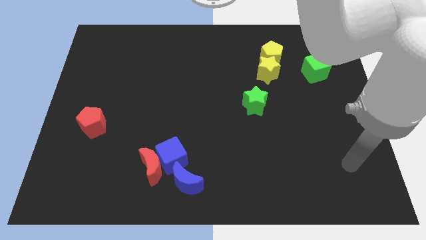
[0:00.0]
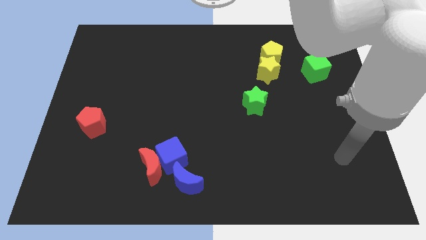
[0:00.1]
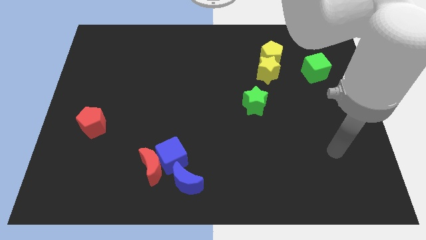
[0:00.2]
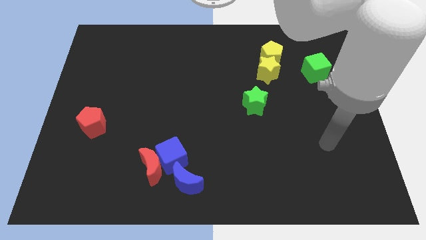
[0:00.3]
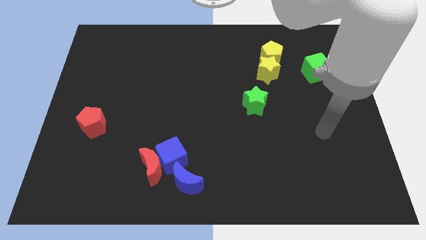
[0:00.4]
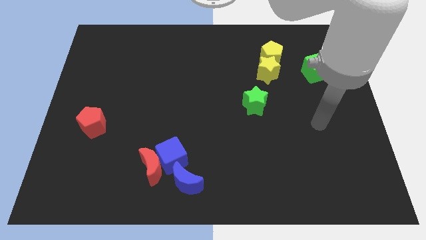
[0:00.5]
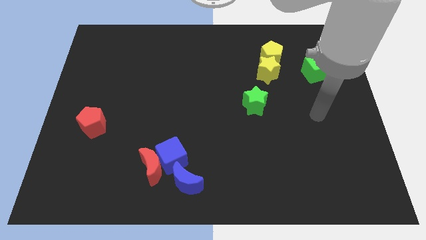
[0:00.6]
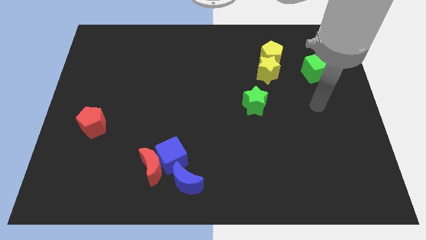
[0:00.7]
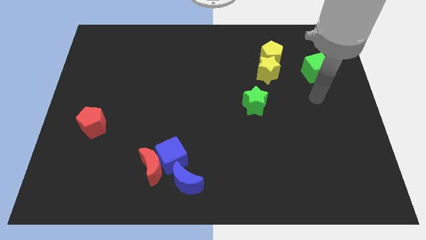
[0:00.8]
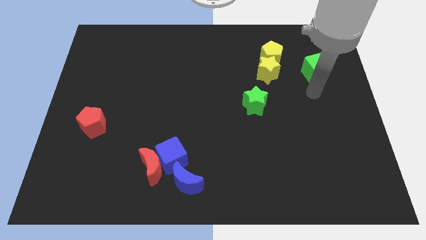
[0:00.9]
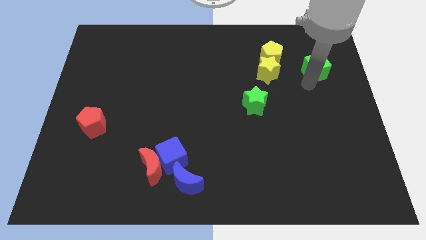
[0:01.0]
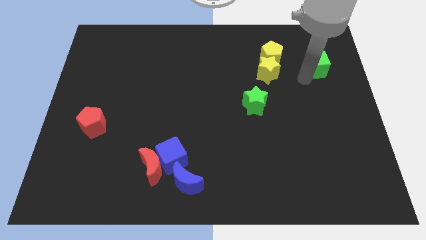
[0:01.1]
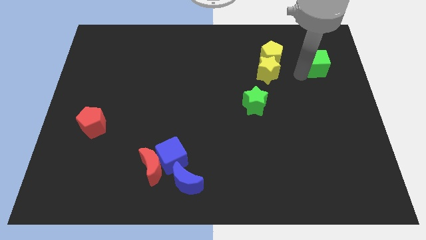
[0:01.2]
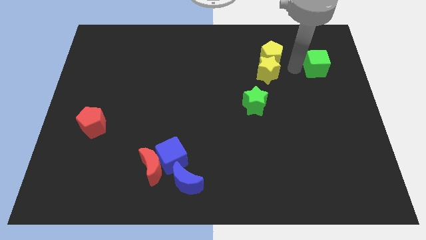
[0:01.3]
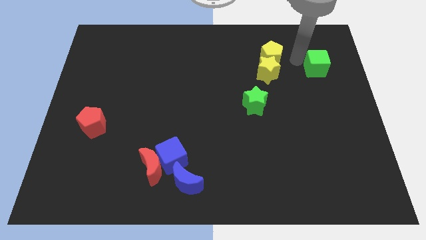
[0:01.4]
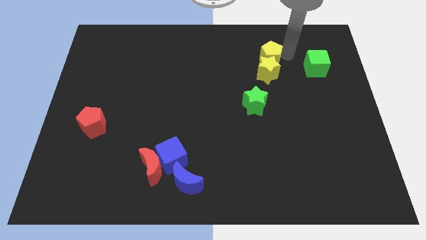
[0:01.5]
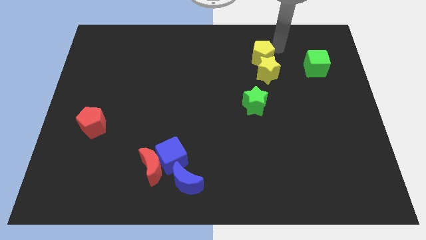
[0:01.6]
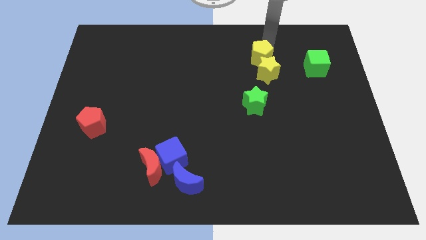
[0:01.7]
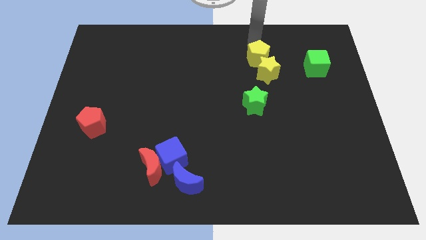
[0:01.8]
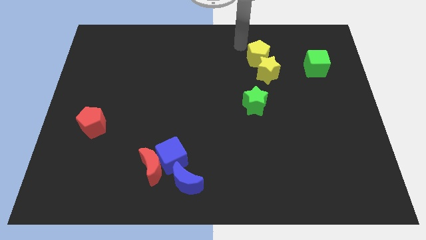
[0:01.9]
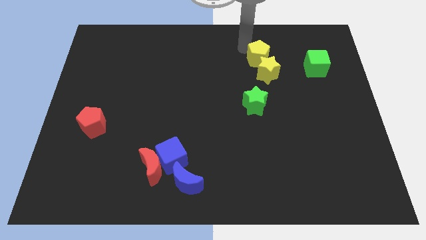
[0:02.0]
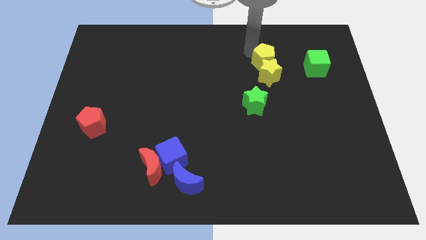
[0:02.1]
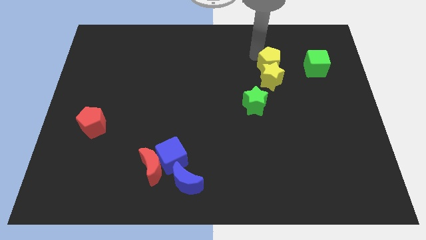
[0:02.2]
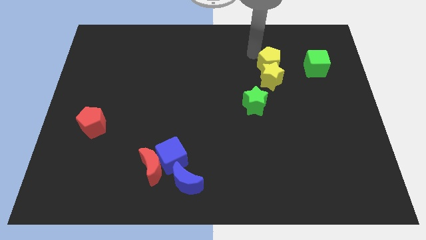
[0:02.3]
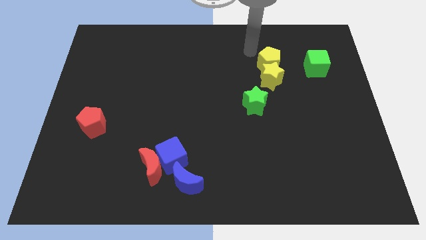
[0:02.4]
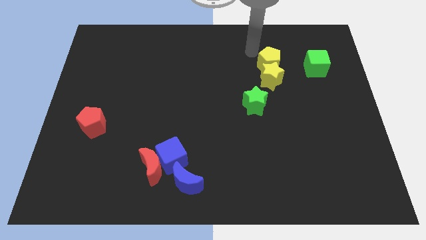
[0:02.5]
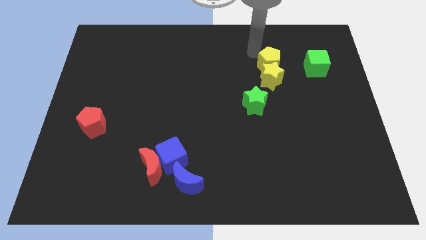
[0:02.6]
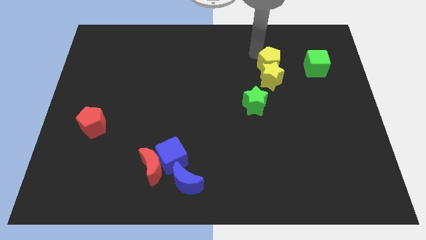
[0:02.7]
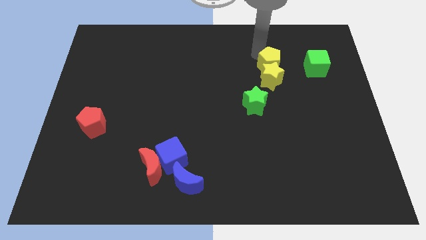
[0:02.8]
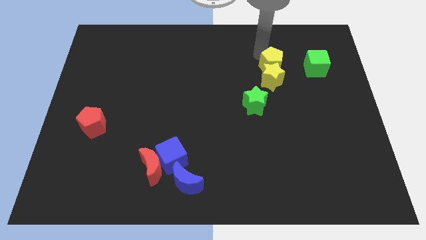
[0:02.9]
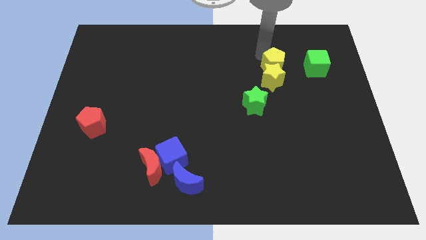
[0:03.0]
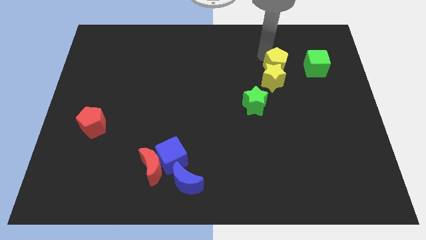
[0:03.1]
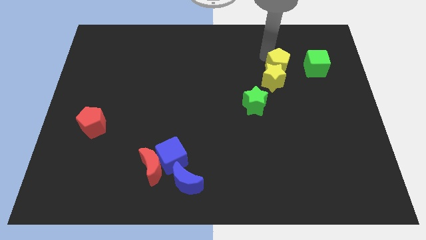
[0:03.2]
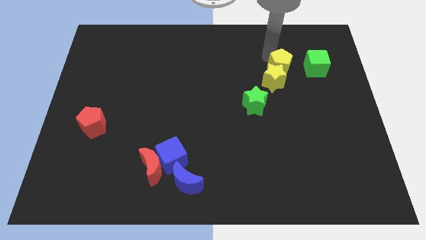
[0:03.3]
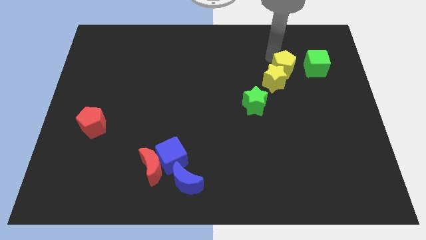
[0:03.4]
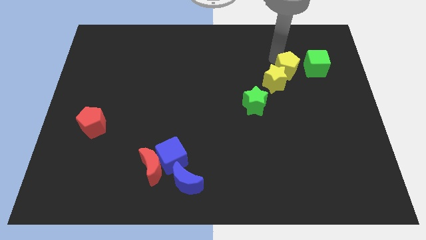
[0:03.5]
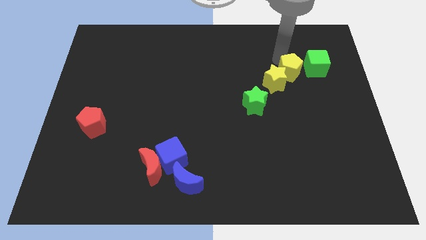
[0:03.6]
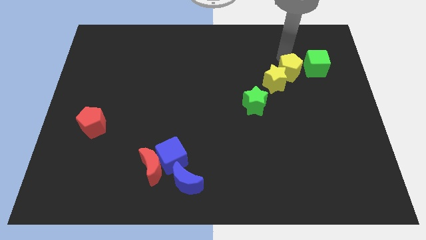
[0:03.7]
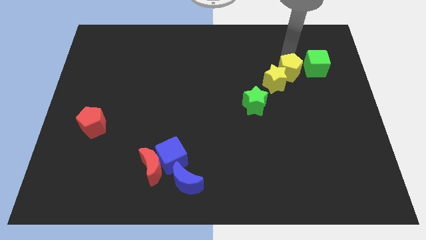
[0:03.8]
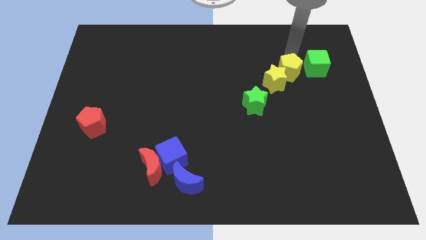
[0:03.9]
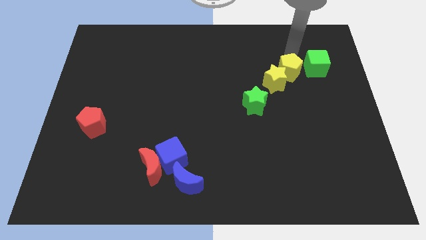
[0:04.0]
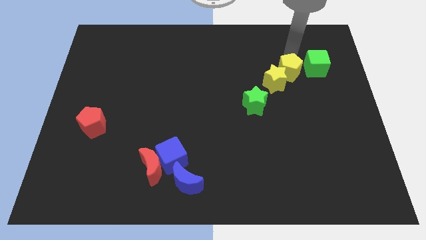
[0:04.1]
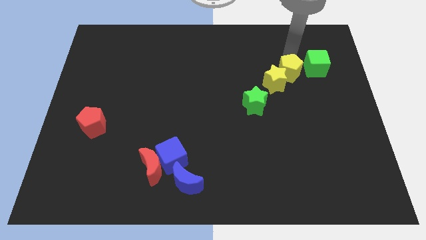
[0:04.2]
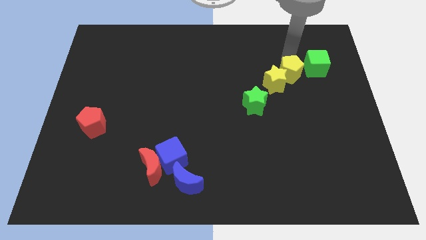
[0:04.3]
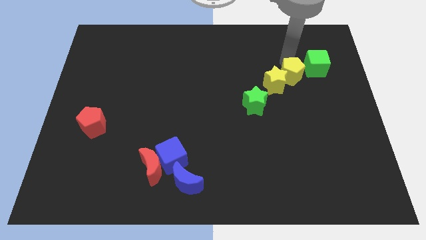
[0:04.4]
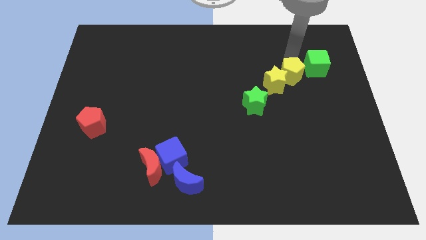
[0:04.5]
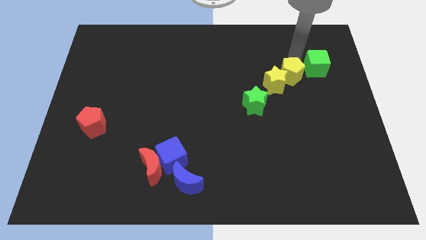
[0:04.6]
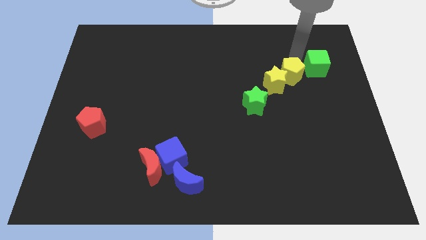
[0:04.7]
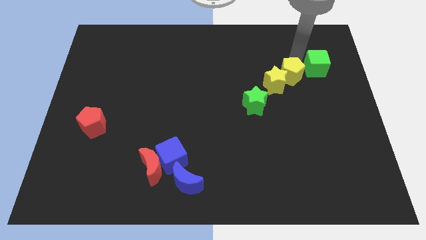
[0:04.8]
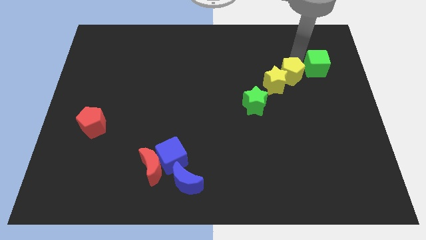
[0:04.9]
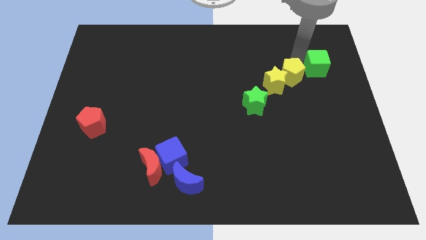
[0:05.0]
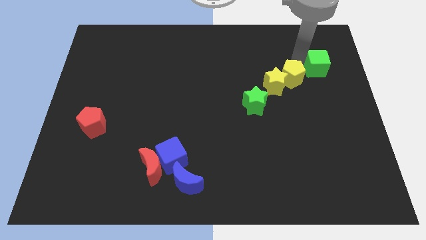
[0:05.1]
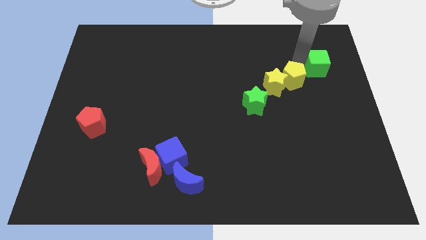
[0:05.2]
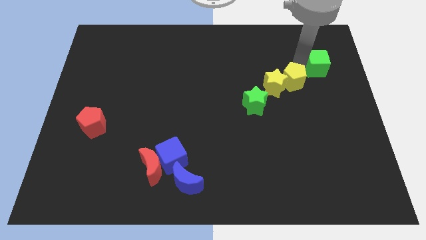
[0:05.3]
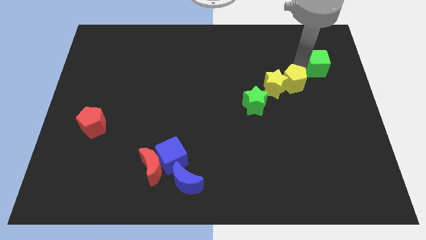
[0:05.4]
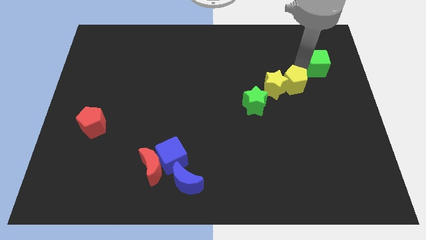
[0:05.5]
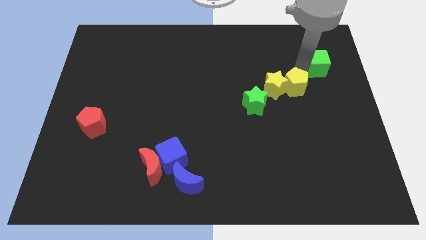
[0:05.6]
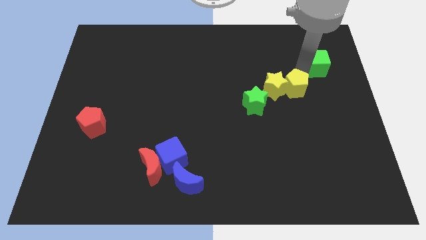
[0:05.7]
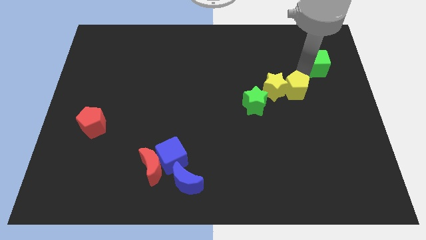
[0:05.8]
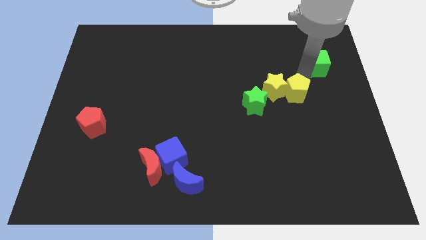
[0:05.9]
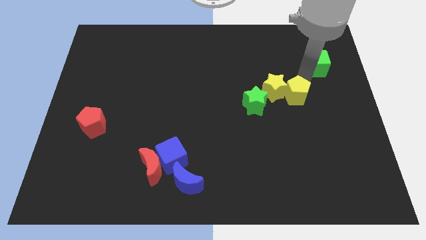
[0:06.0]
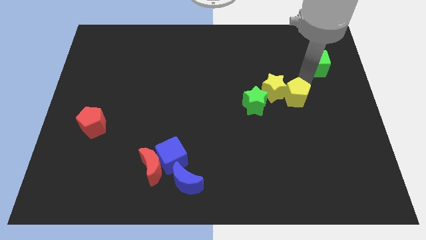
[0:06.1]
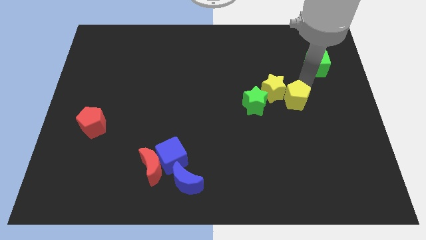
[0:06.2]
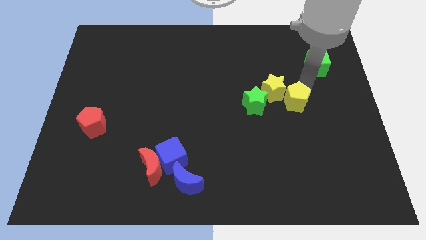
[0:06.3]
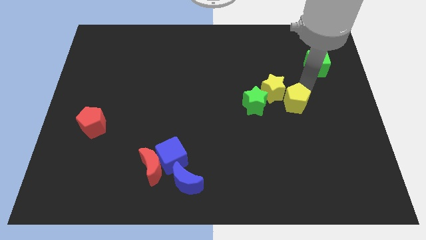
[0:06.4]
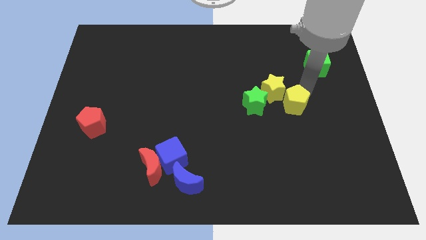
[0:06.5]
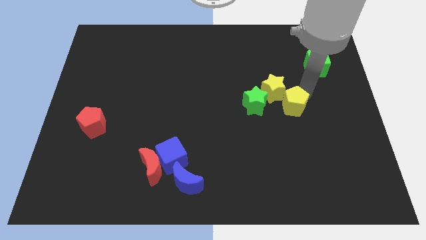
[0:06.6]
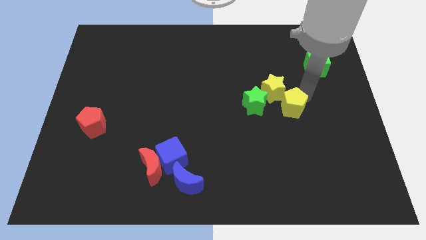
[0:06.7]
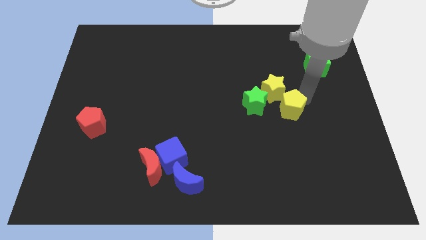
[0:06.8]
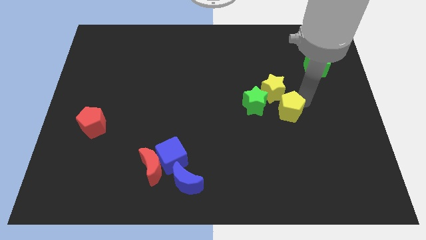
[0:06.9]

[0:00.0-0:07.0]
push the yellow pentagon to the bottom right side of the green star

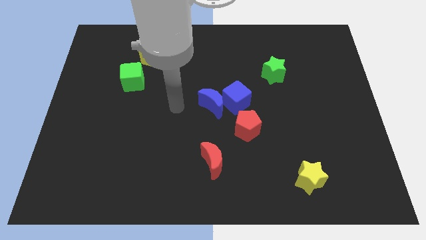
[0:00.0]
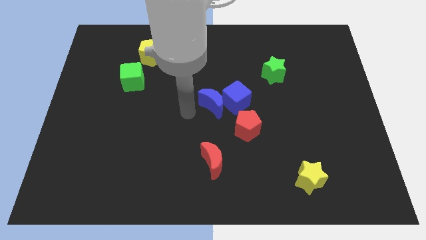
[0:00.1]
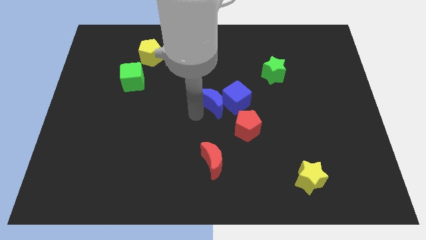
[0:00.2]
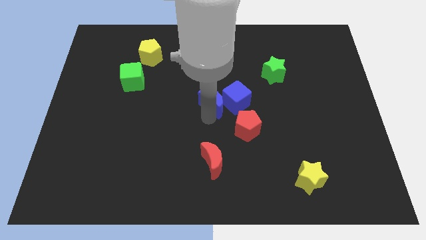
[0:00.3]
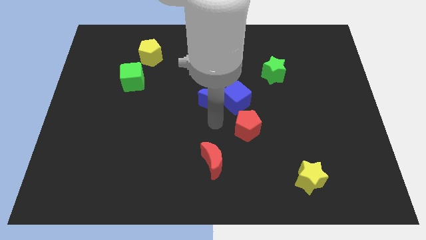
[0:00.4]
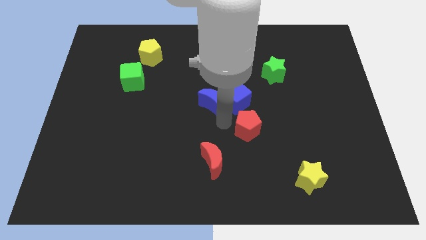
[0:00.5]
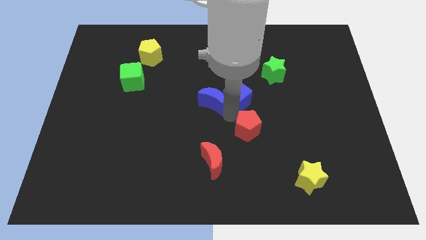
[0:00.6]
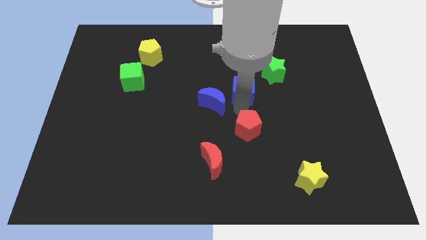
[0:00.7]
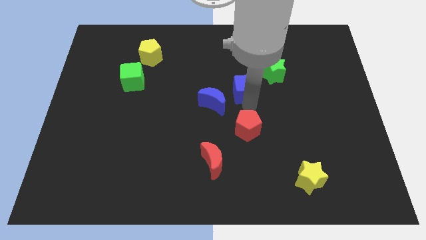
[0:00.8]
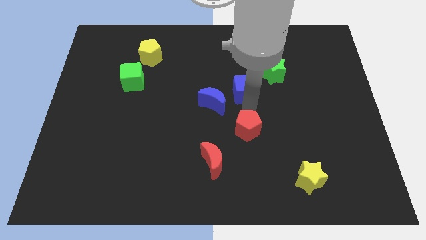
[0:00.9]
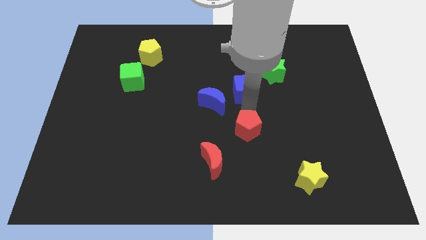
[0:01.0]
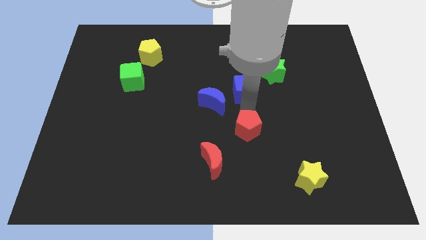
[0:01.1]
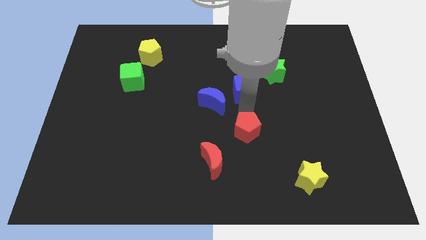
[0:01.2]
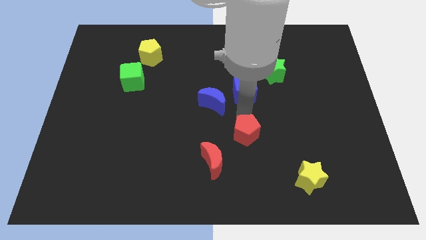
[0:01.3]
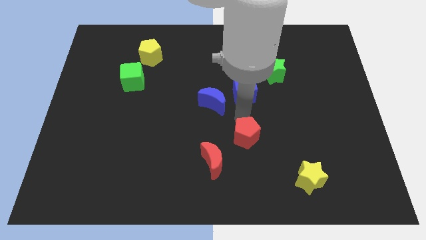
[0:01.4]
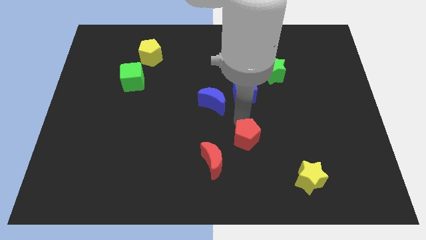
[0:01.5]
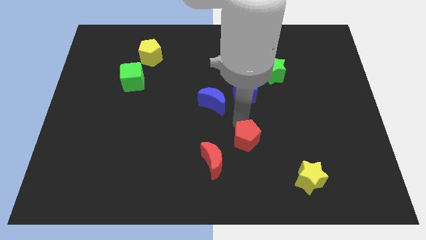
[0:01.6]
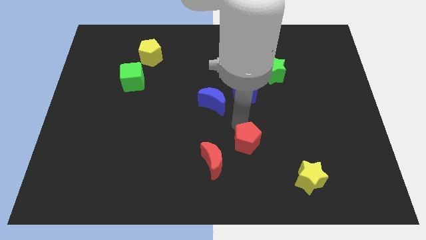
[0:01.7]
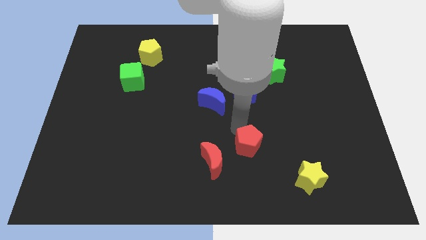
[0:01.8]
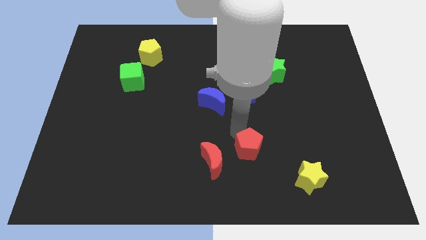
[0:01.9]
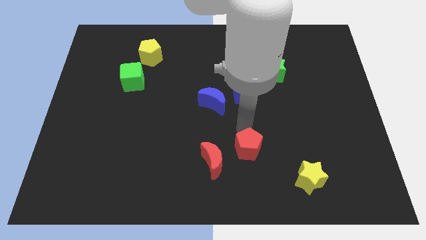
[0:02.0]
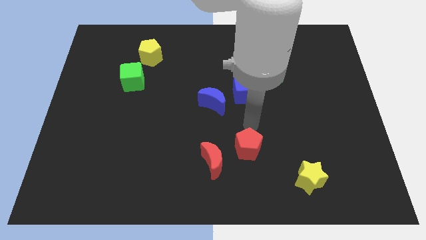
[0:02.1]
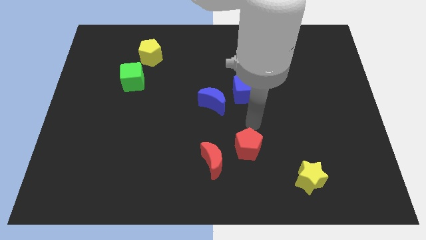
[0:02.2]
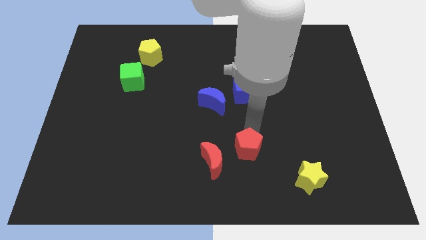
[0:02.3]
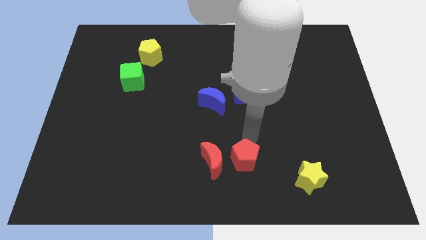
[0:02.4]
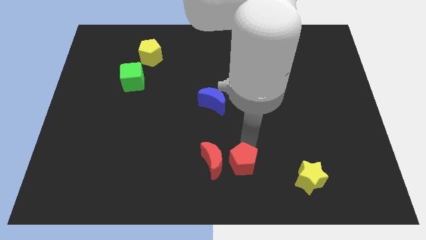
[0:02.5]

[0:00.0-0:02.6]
move the red pentagon diagonally down and to the right of the red moon
